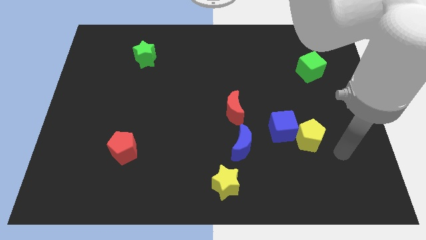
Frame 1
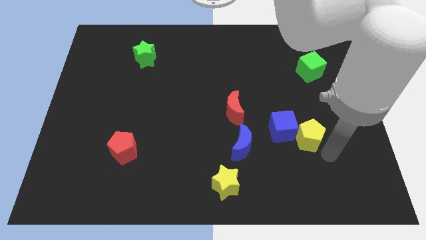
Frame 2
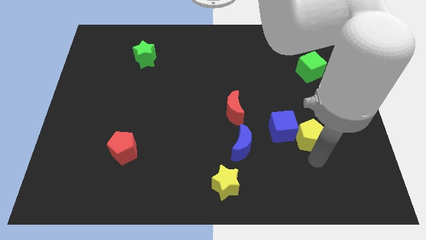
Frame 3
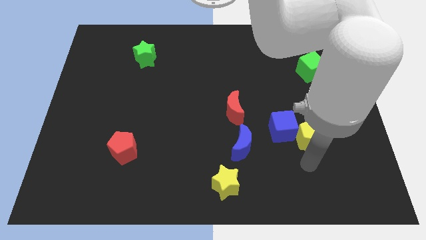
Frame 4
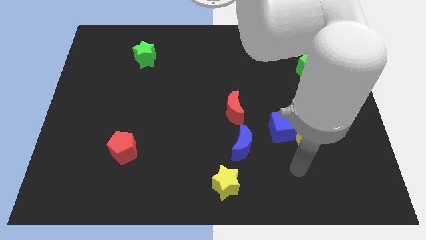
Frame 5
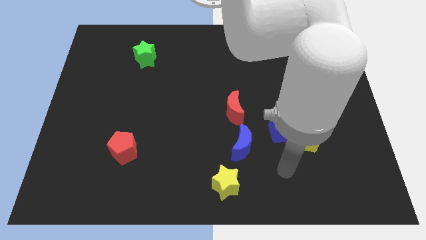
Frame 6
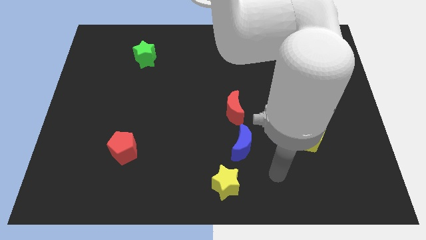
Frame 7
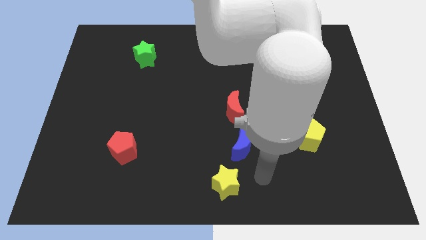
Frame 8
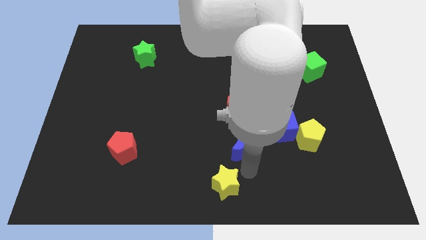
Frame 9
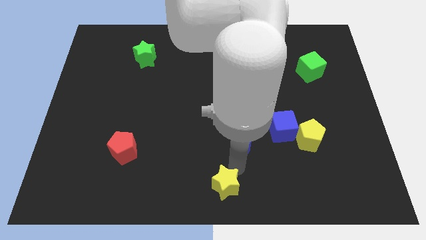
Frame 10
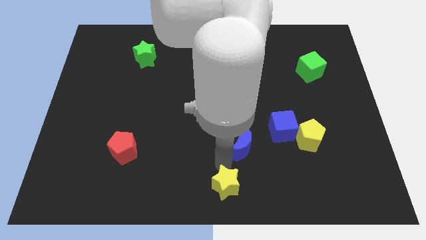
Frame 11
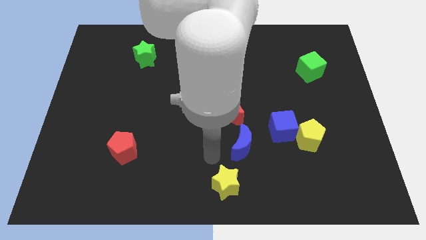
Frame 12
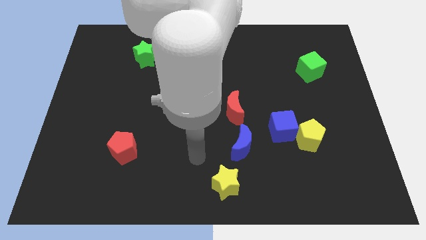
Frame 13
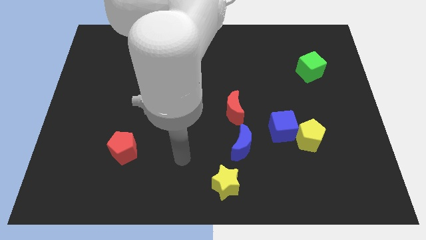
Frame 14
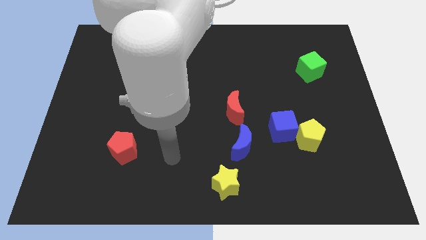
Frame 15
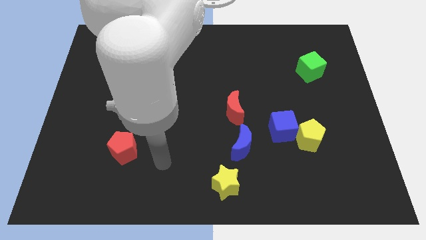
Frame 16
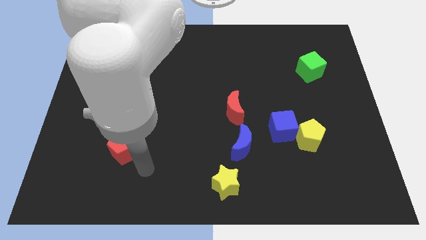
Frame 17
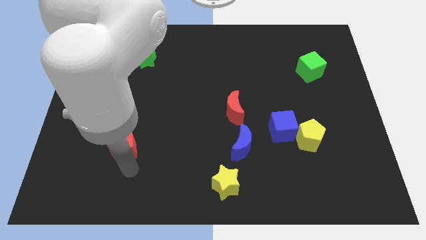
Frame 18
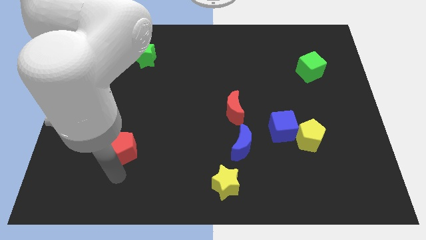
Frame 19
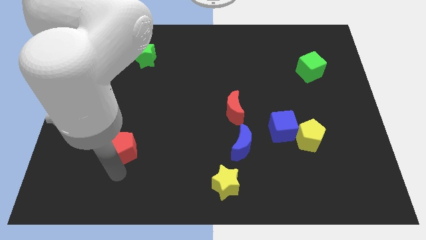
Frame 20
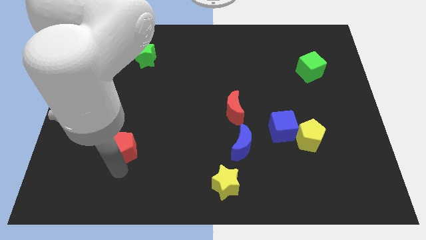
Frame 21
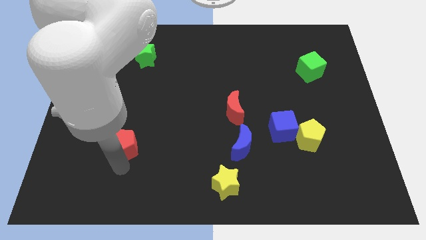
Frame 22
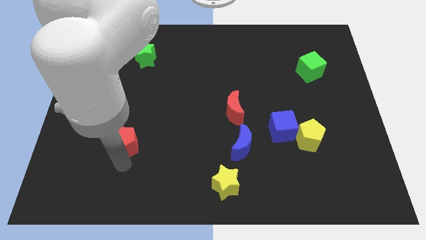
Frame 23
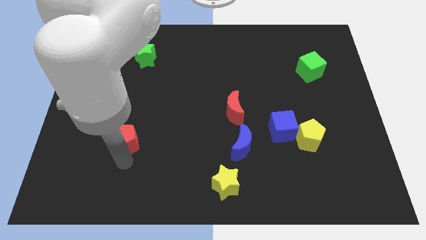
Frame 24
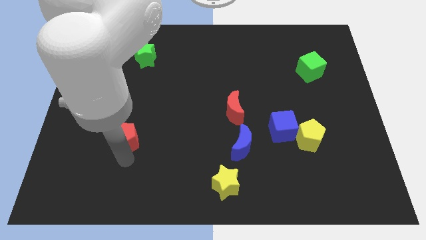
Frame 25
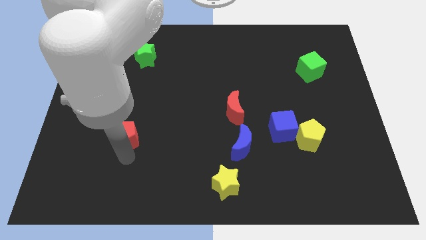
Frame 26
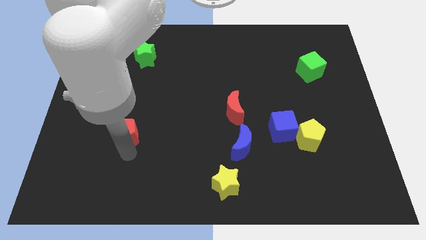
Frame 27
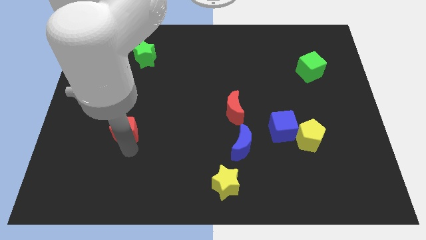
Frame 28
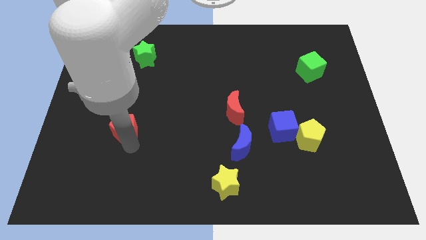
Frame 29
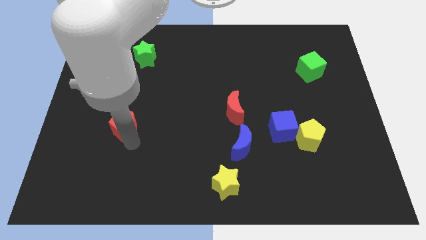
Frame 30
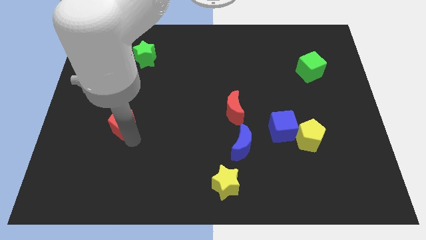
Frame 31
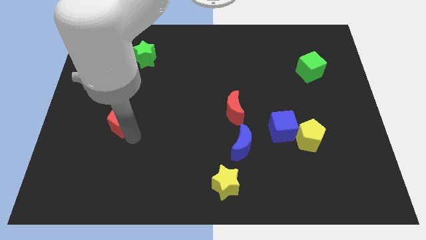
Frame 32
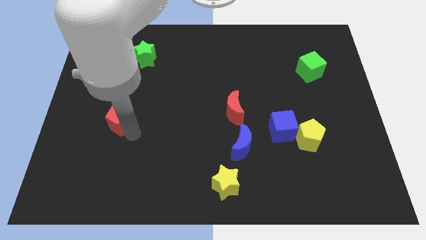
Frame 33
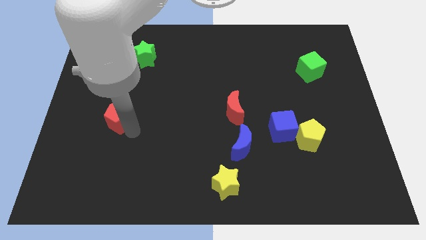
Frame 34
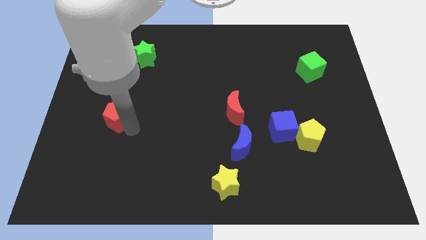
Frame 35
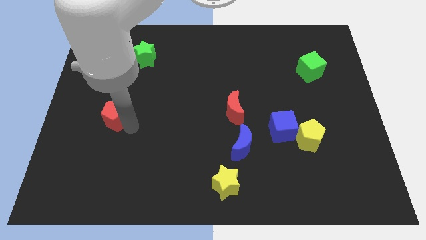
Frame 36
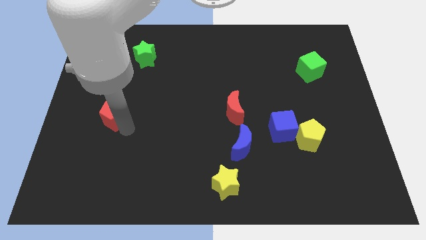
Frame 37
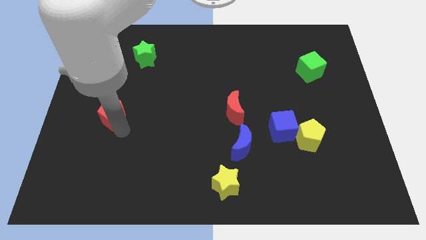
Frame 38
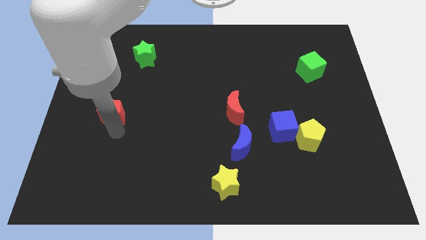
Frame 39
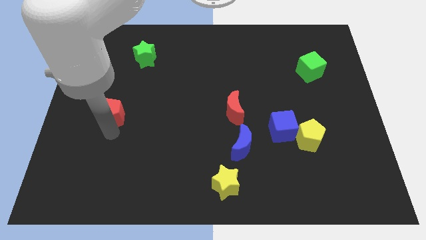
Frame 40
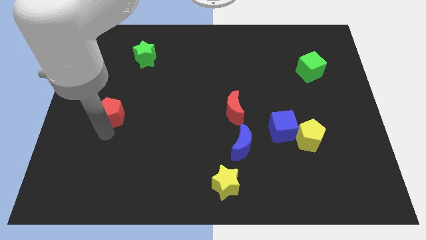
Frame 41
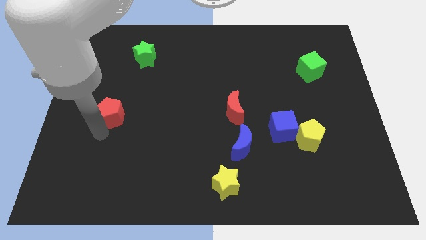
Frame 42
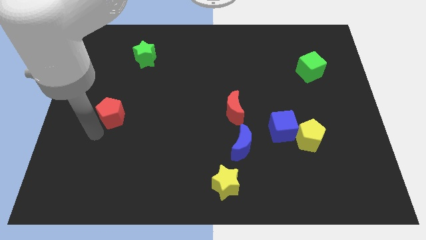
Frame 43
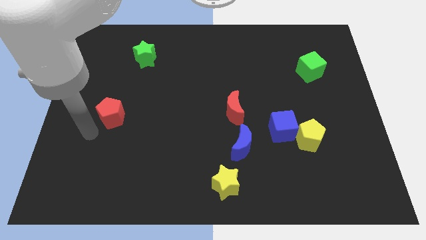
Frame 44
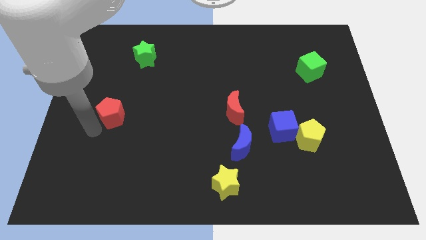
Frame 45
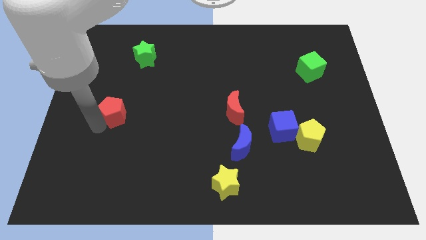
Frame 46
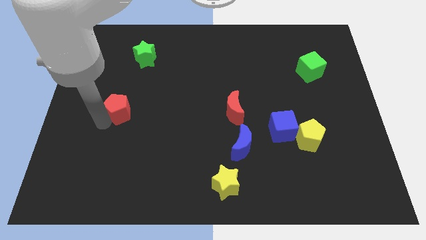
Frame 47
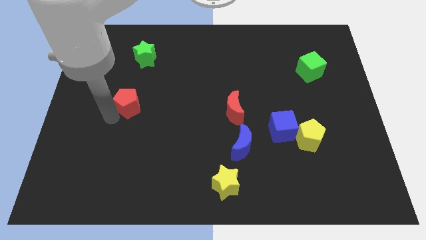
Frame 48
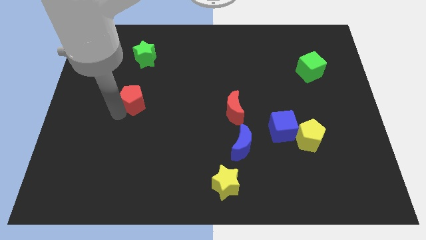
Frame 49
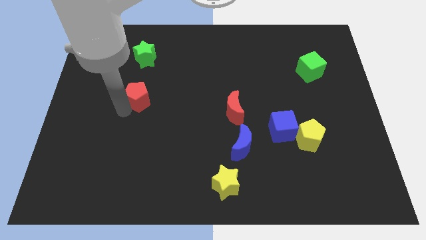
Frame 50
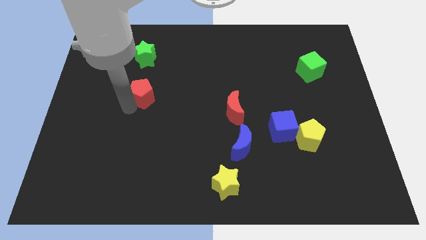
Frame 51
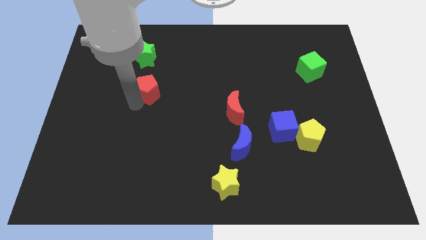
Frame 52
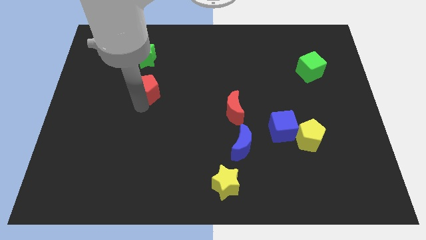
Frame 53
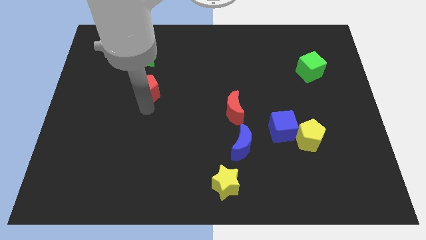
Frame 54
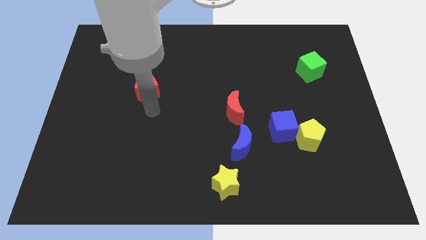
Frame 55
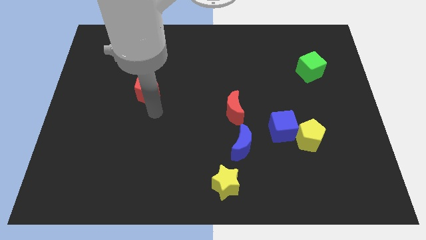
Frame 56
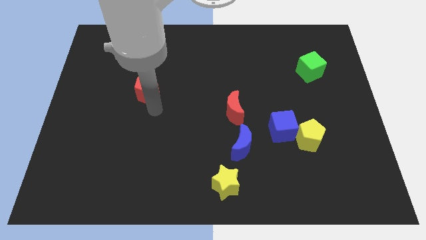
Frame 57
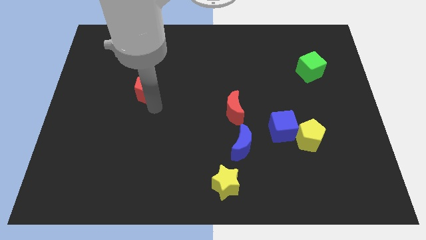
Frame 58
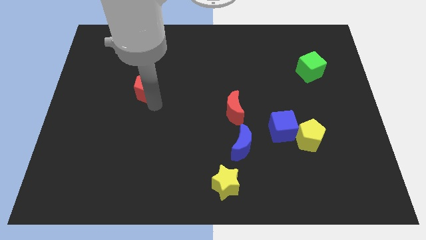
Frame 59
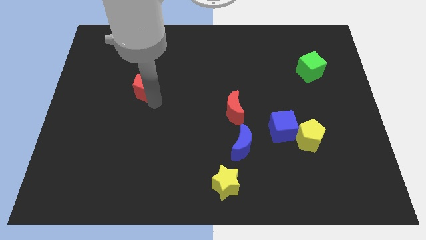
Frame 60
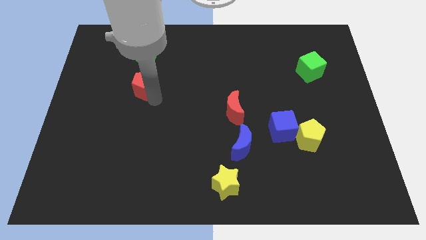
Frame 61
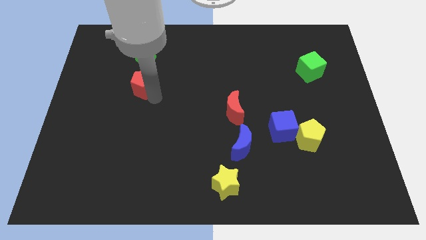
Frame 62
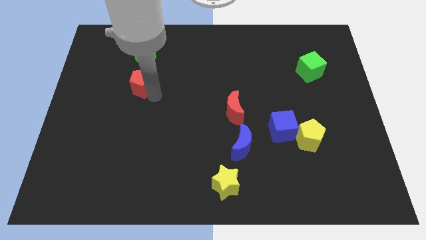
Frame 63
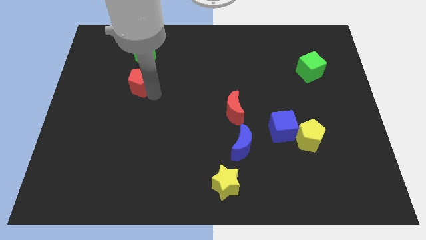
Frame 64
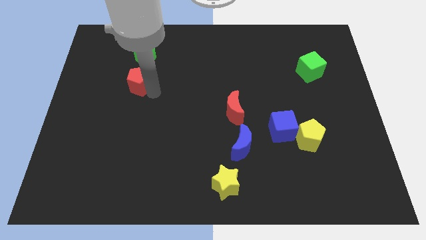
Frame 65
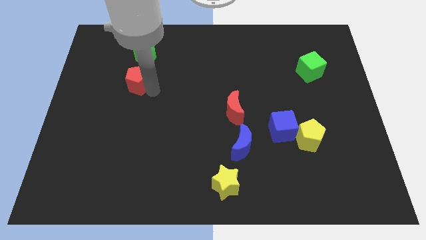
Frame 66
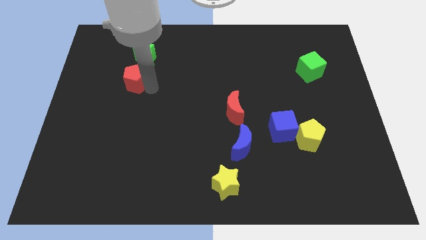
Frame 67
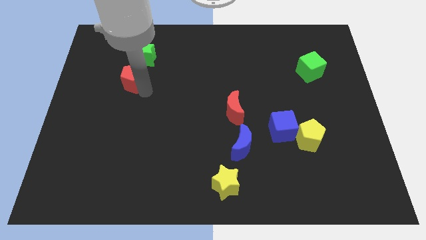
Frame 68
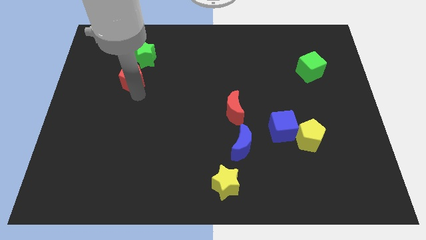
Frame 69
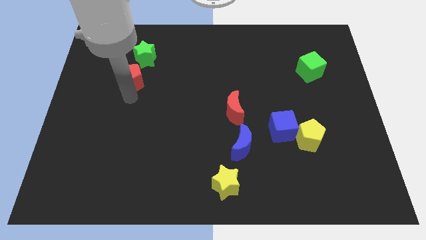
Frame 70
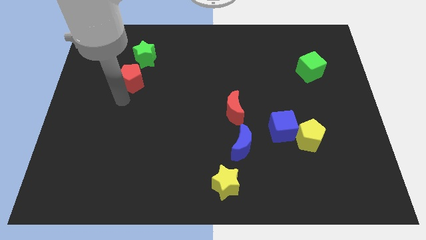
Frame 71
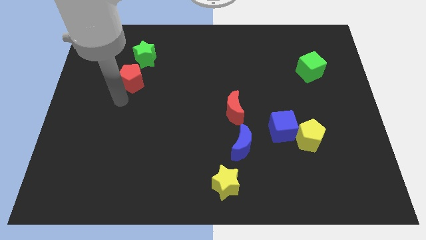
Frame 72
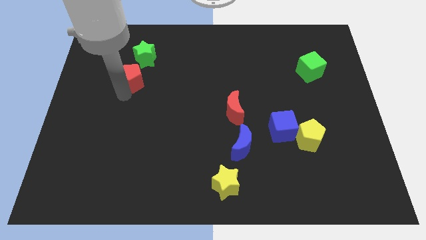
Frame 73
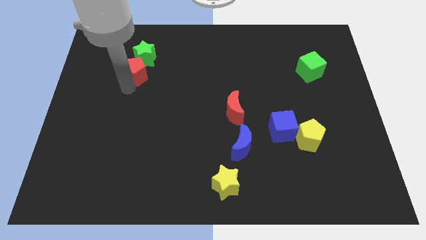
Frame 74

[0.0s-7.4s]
push the red pentagon close to the green star

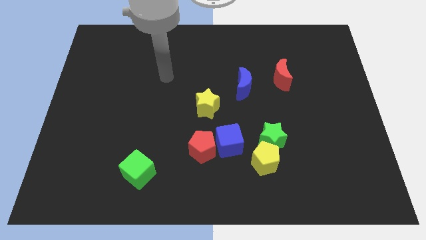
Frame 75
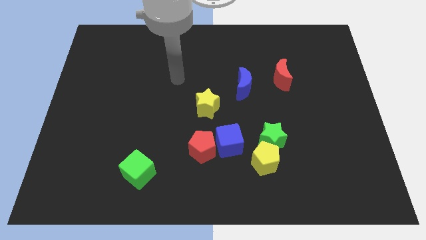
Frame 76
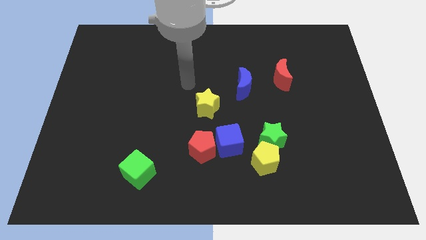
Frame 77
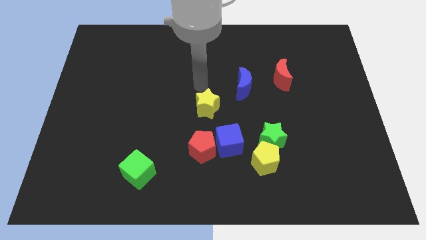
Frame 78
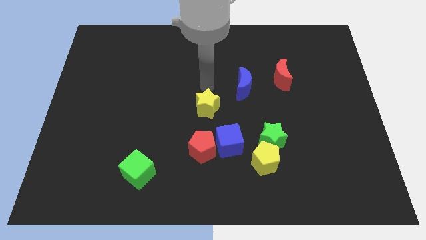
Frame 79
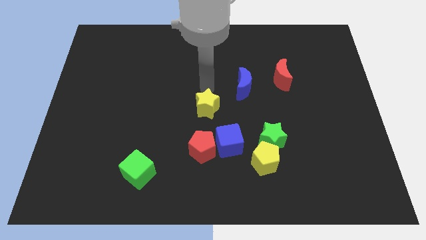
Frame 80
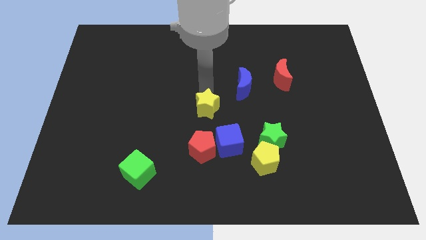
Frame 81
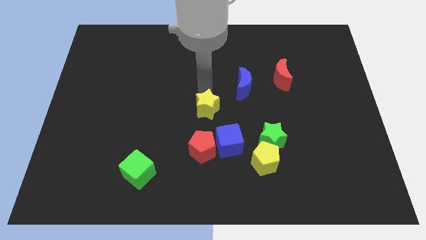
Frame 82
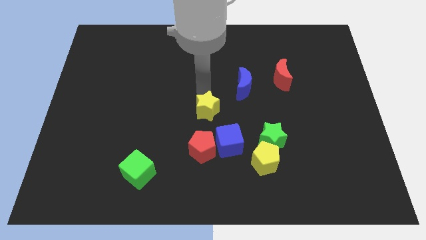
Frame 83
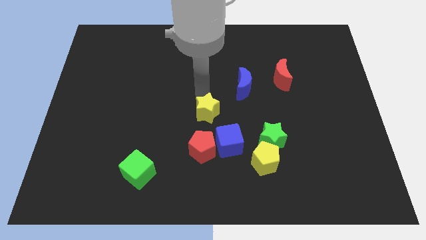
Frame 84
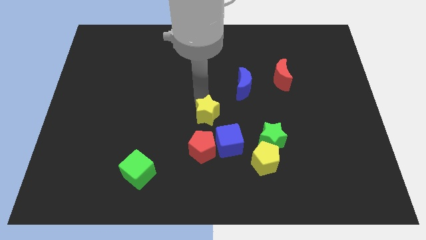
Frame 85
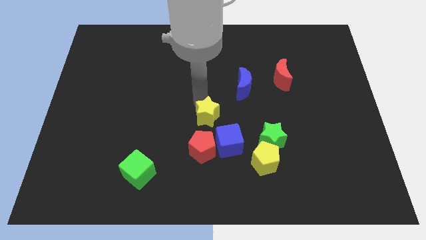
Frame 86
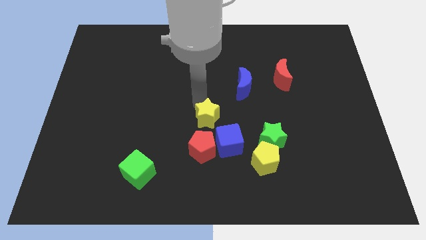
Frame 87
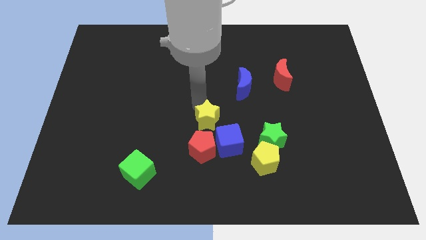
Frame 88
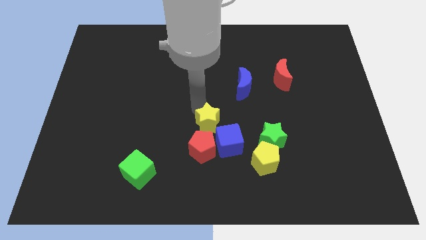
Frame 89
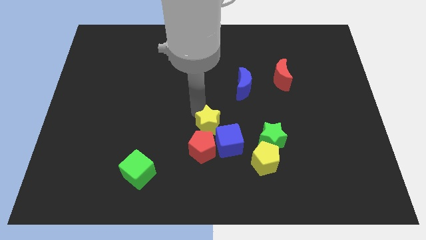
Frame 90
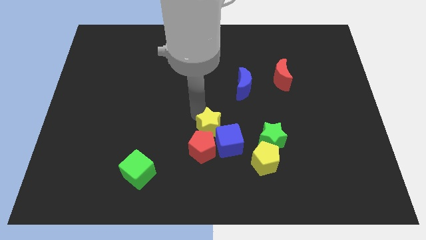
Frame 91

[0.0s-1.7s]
put the yellow star to the red pentagon
